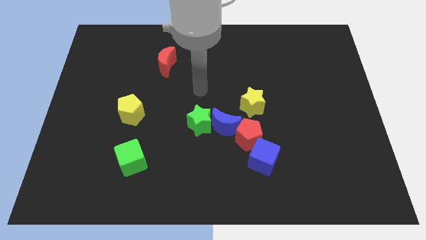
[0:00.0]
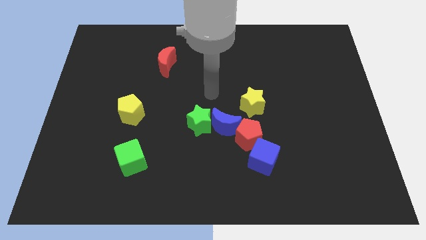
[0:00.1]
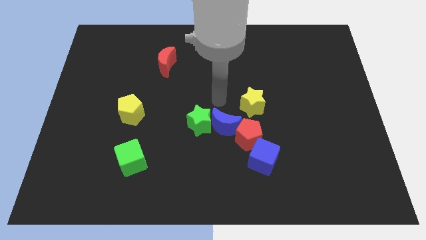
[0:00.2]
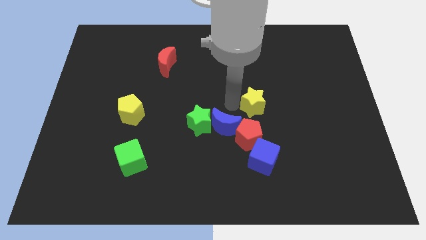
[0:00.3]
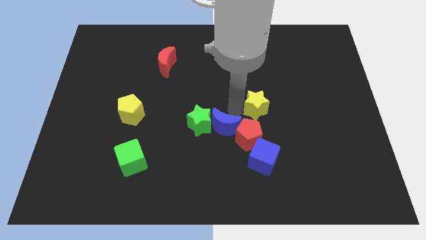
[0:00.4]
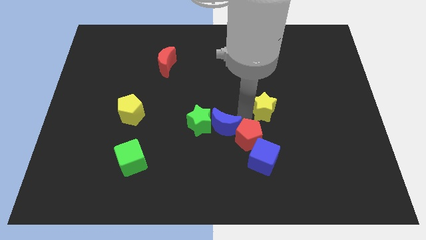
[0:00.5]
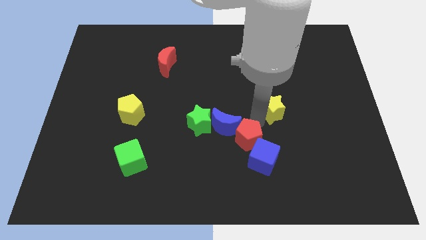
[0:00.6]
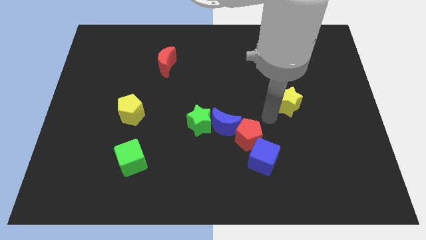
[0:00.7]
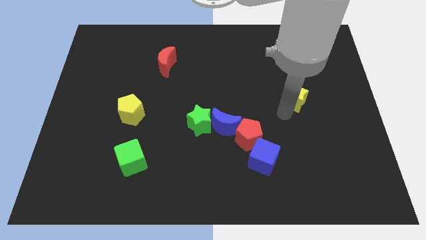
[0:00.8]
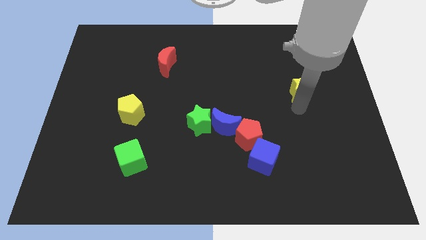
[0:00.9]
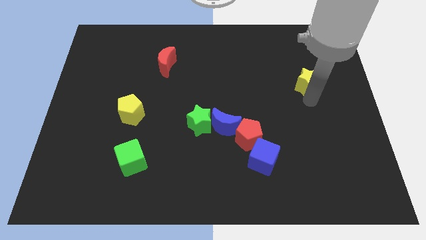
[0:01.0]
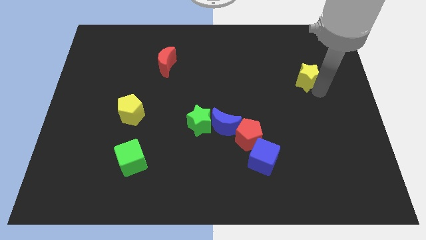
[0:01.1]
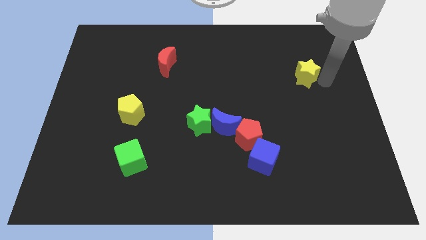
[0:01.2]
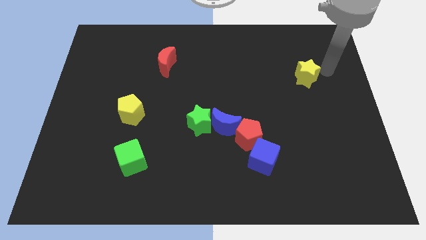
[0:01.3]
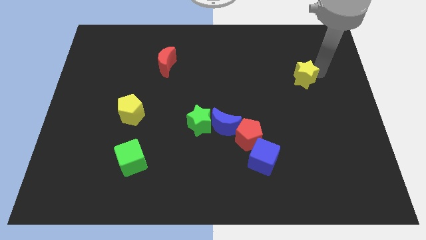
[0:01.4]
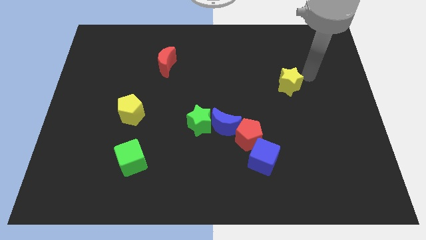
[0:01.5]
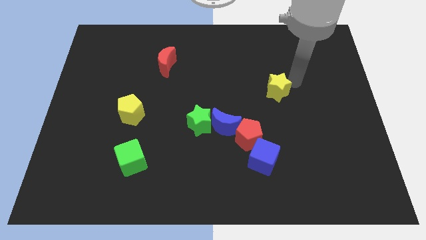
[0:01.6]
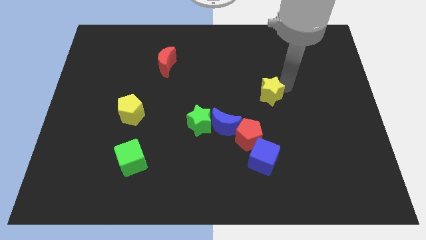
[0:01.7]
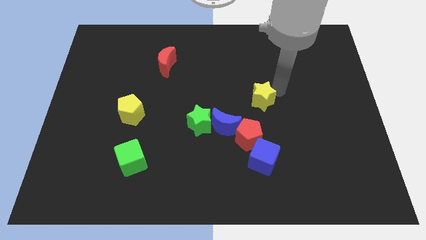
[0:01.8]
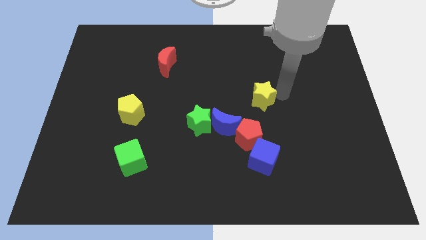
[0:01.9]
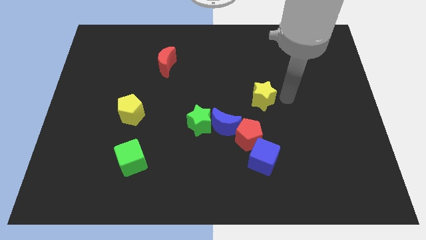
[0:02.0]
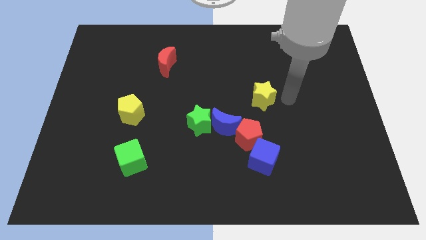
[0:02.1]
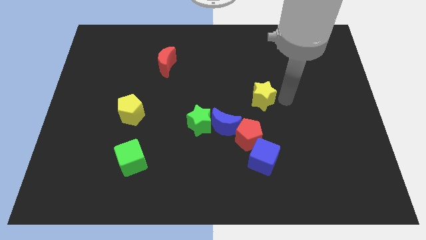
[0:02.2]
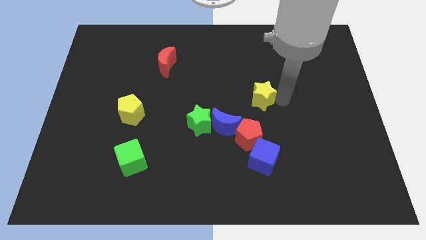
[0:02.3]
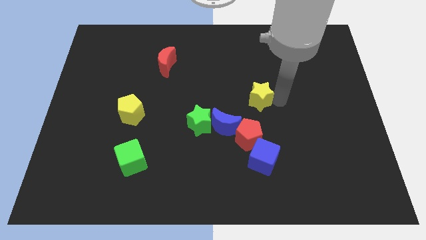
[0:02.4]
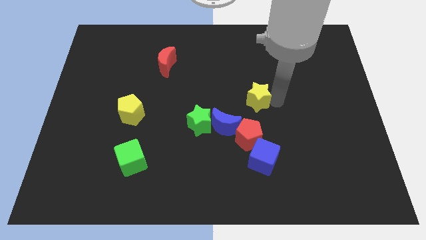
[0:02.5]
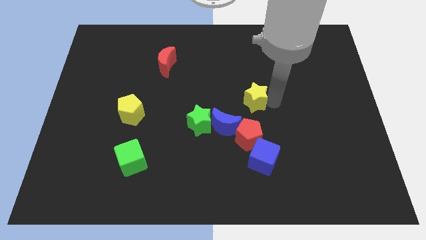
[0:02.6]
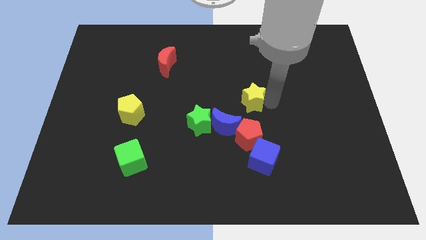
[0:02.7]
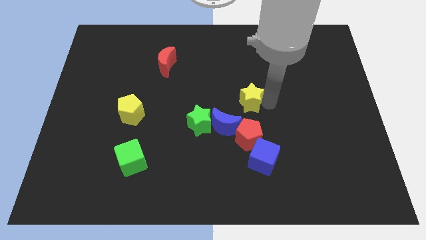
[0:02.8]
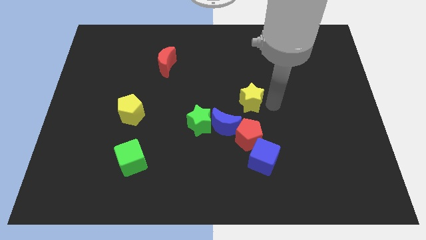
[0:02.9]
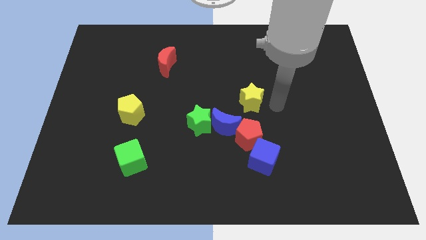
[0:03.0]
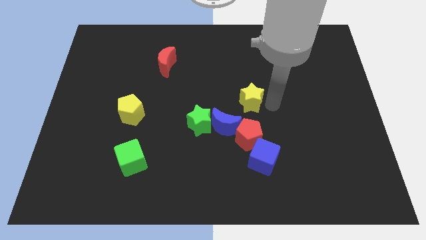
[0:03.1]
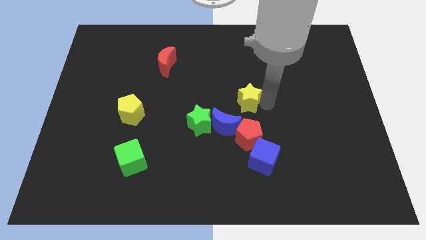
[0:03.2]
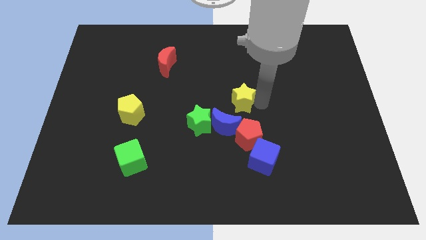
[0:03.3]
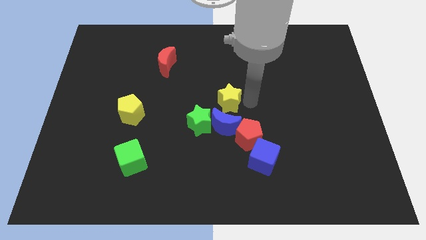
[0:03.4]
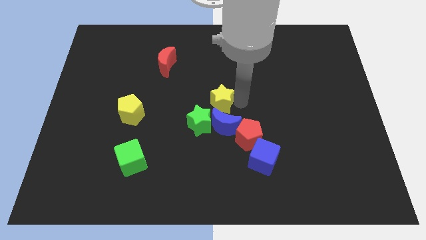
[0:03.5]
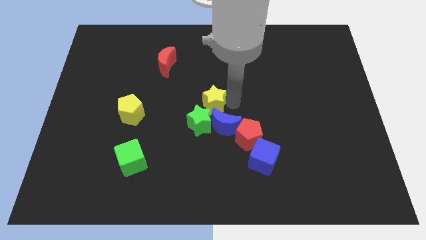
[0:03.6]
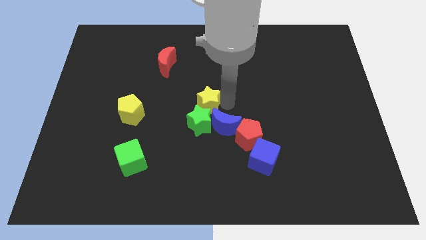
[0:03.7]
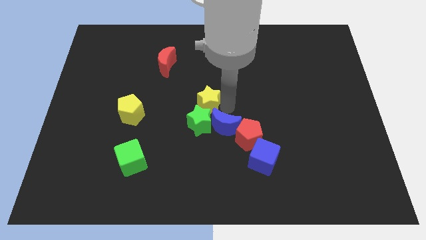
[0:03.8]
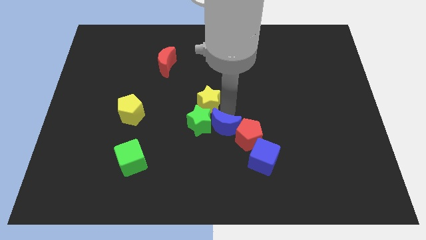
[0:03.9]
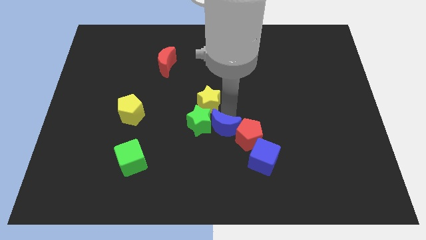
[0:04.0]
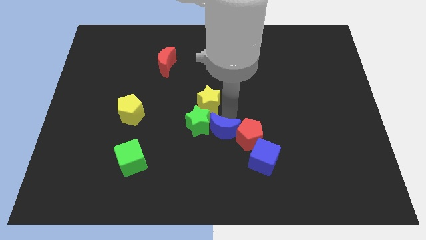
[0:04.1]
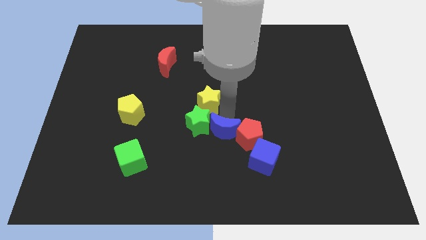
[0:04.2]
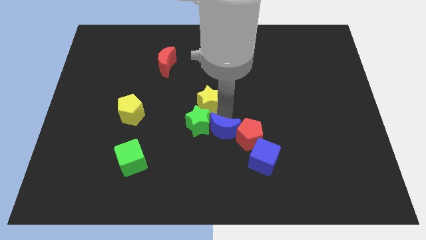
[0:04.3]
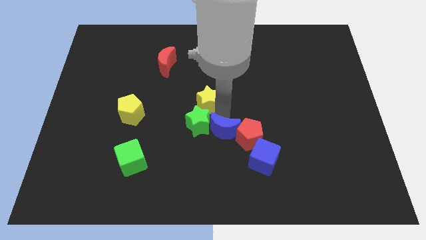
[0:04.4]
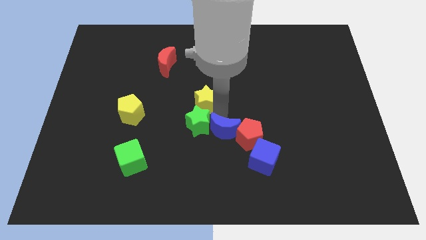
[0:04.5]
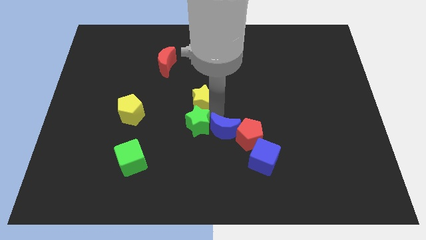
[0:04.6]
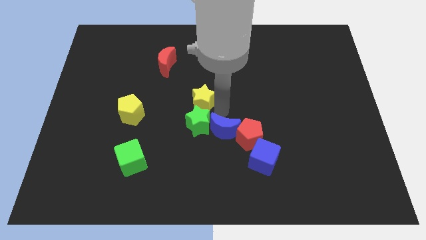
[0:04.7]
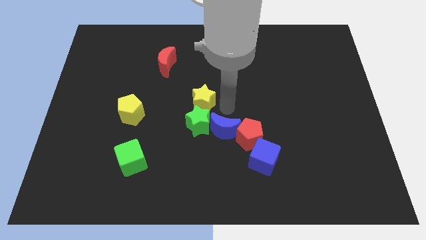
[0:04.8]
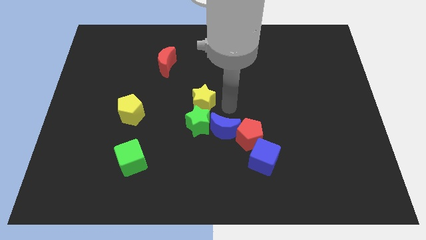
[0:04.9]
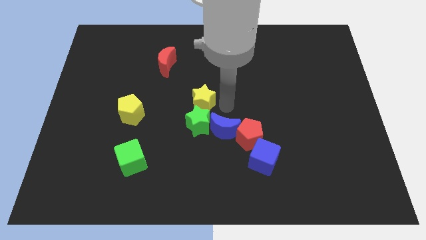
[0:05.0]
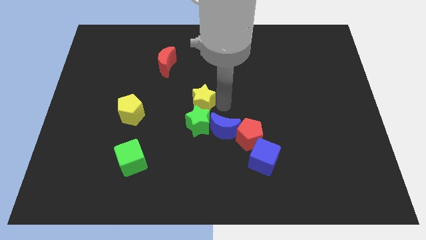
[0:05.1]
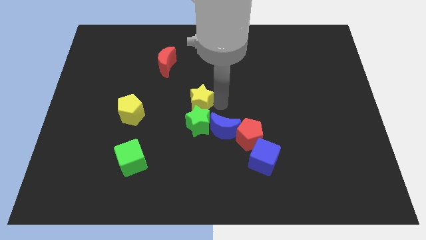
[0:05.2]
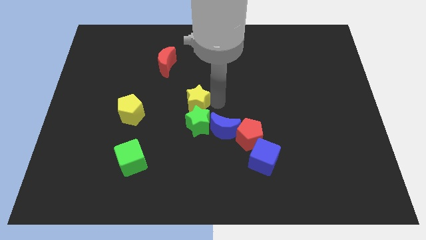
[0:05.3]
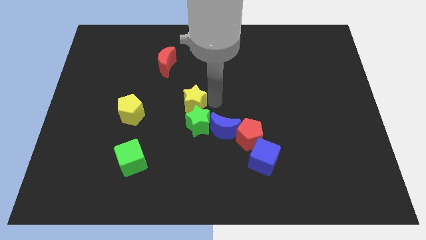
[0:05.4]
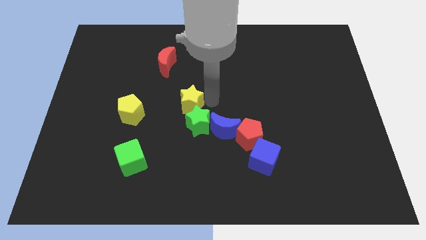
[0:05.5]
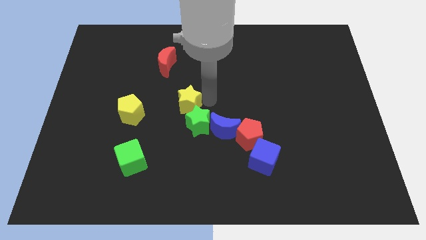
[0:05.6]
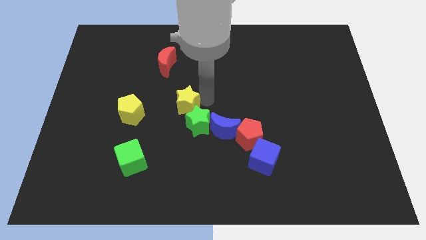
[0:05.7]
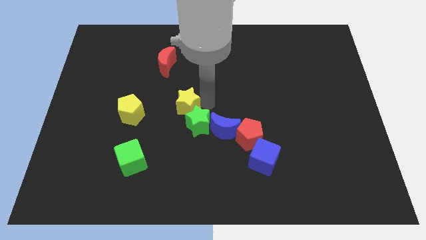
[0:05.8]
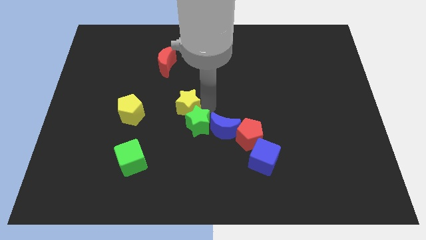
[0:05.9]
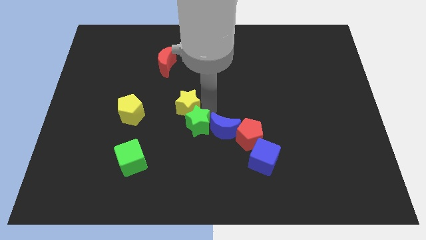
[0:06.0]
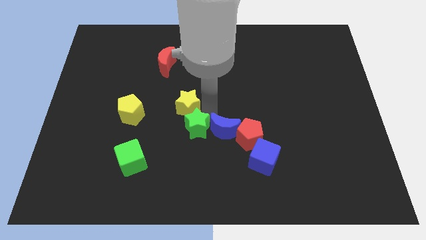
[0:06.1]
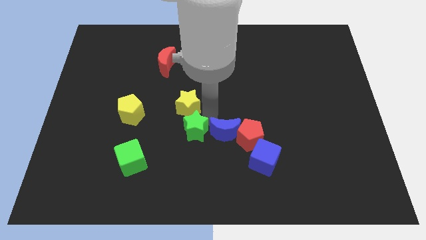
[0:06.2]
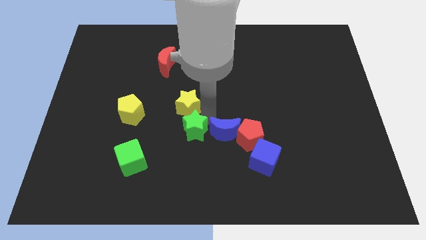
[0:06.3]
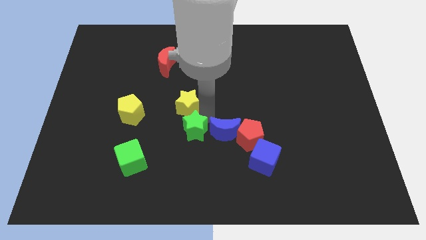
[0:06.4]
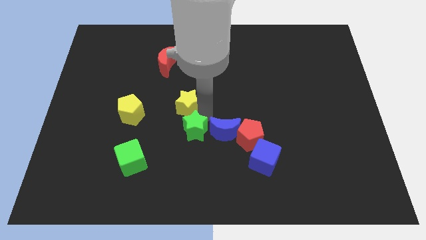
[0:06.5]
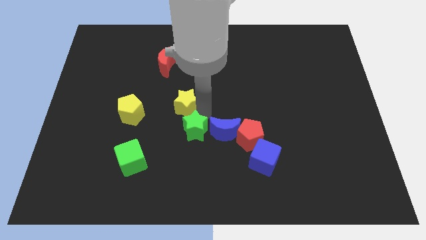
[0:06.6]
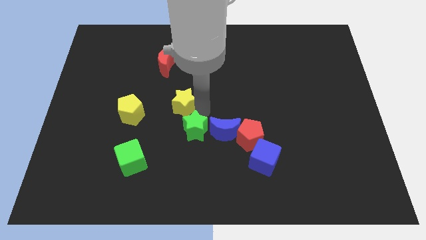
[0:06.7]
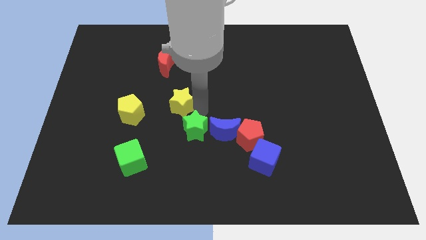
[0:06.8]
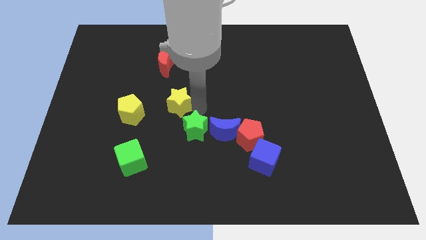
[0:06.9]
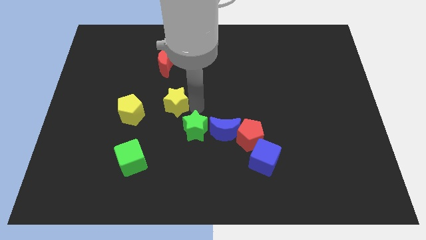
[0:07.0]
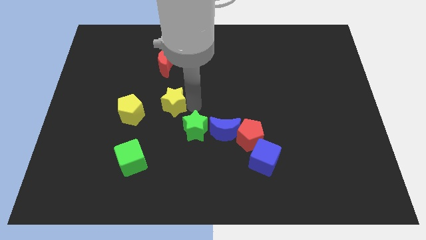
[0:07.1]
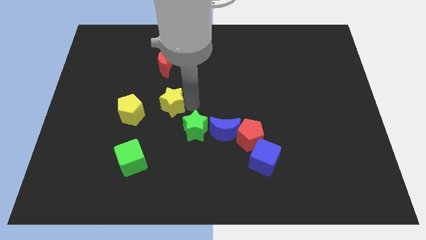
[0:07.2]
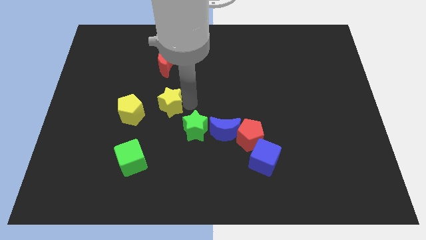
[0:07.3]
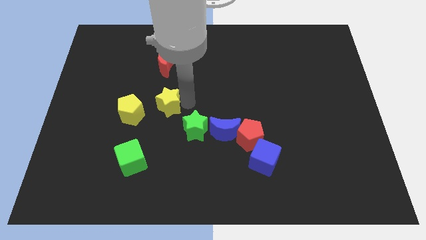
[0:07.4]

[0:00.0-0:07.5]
push the yellow star to the left

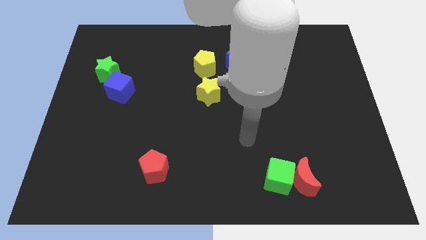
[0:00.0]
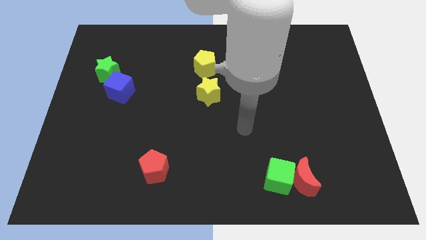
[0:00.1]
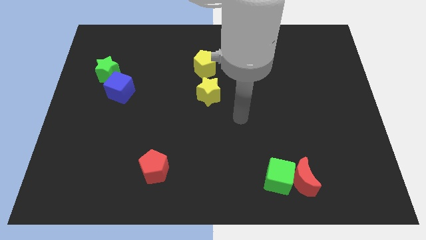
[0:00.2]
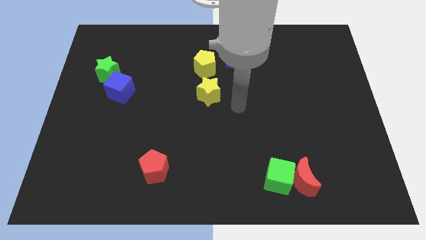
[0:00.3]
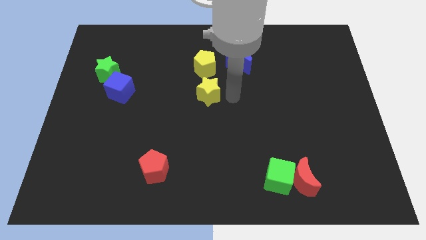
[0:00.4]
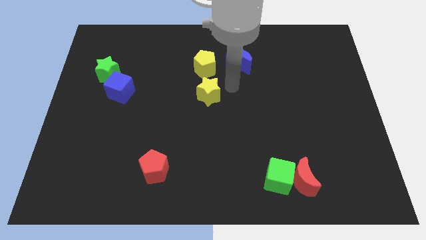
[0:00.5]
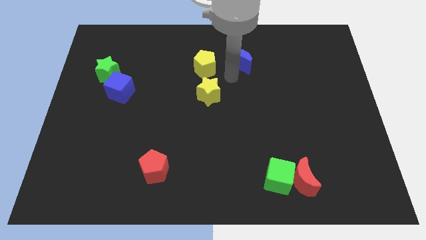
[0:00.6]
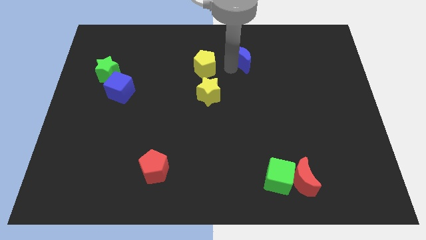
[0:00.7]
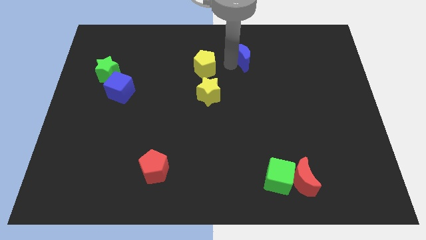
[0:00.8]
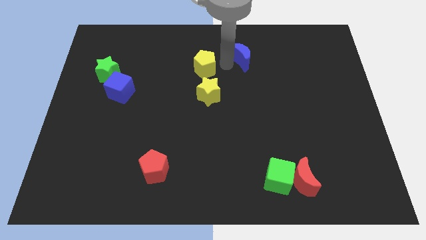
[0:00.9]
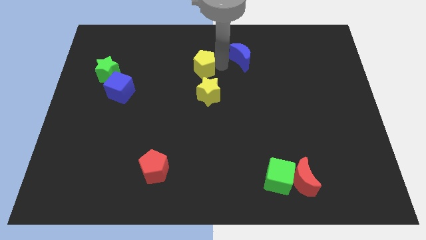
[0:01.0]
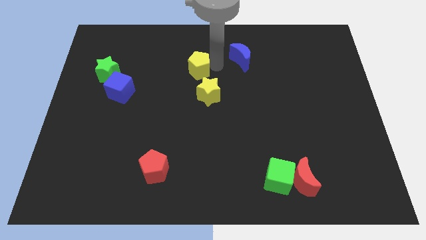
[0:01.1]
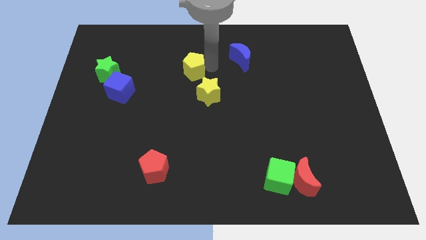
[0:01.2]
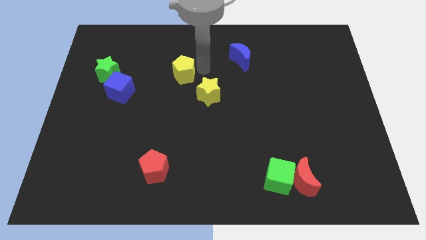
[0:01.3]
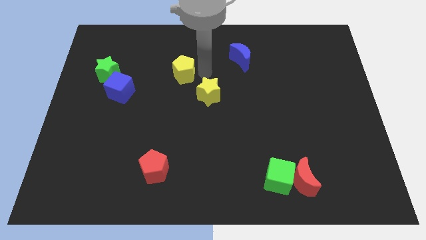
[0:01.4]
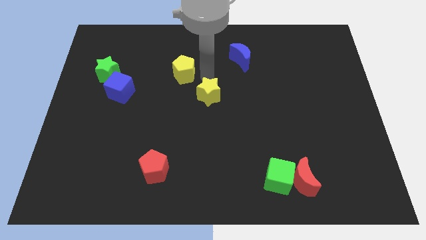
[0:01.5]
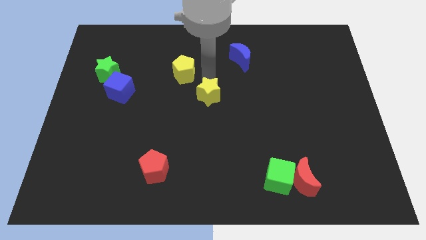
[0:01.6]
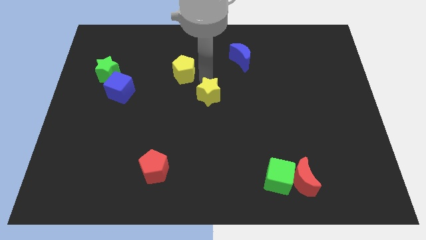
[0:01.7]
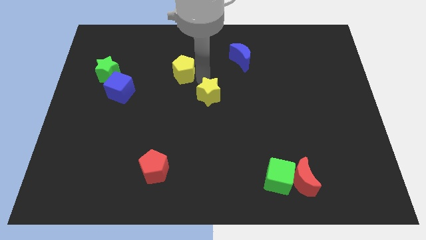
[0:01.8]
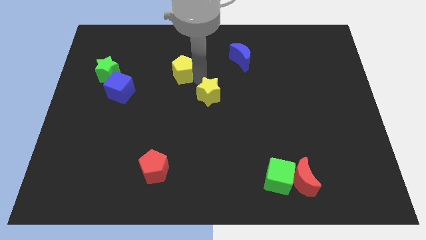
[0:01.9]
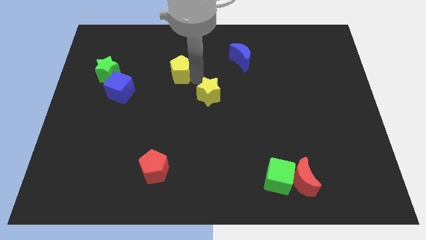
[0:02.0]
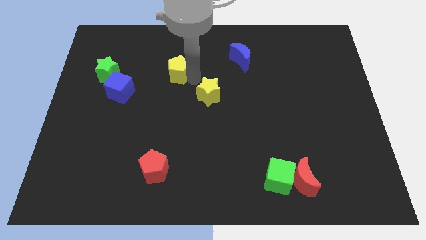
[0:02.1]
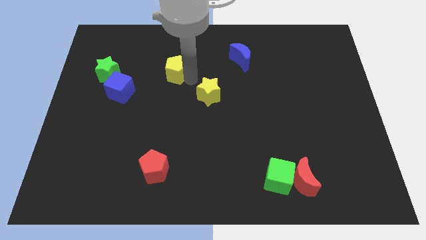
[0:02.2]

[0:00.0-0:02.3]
slide the yellow pentagon a bit to the left
